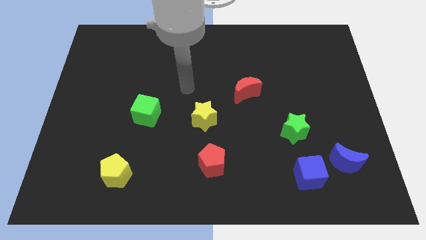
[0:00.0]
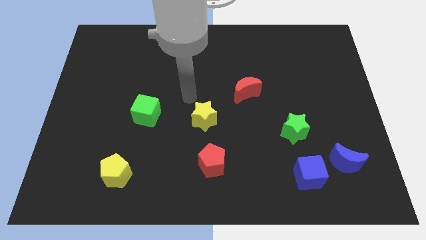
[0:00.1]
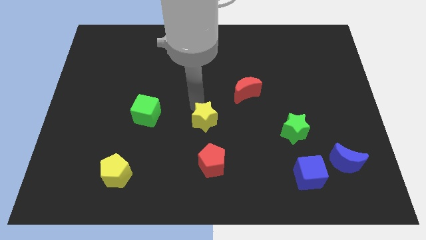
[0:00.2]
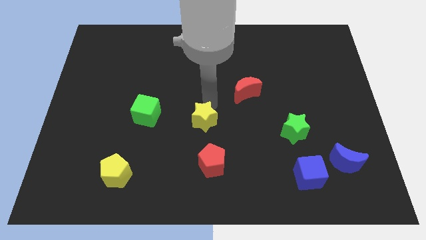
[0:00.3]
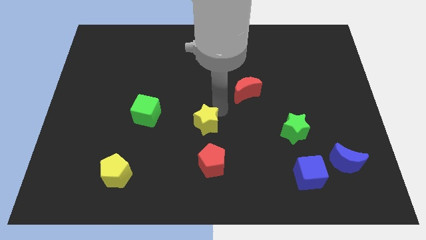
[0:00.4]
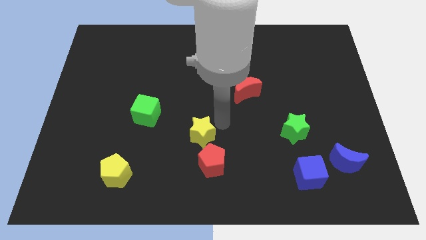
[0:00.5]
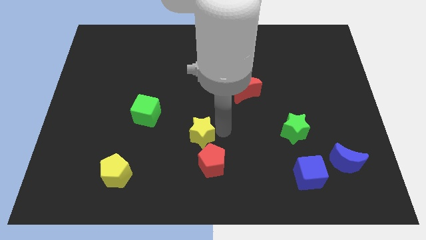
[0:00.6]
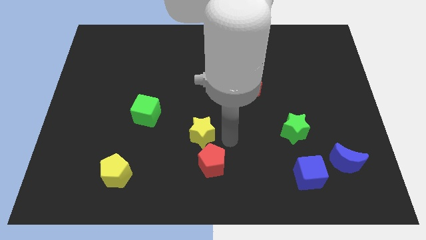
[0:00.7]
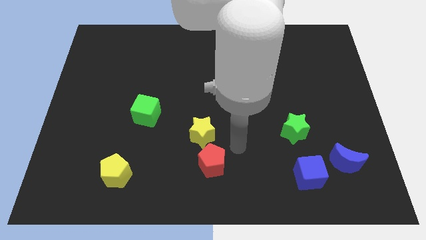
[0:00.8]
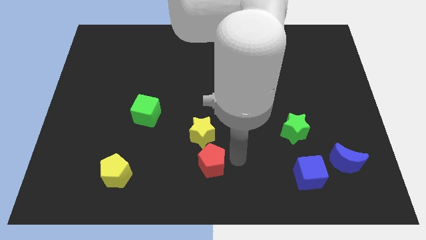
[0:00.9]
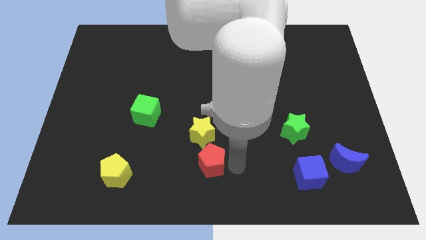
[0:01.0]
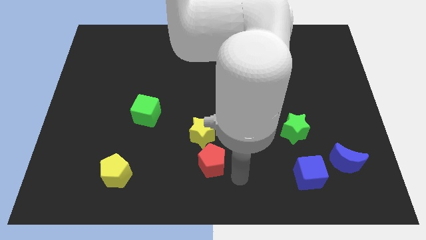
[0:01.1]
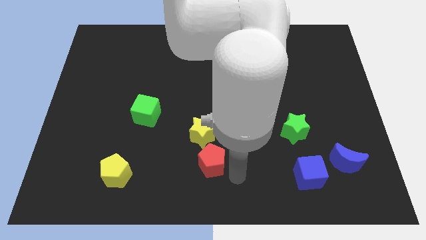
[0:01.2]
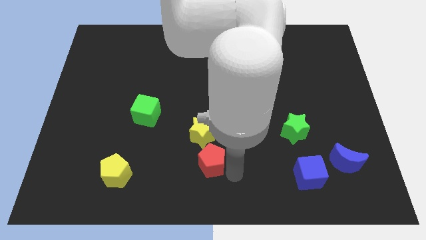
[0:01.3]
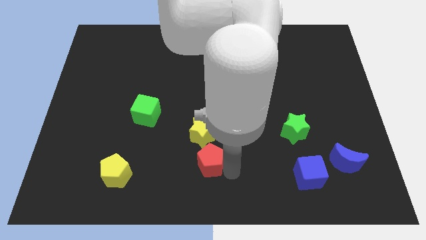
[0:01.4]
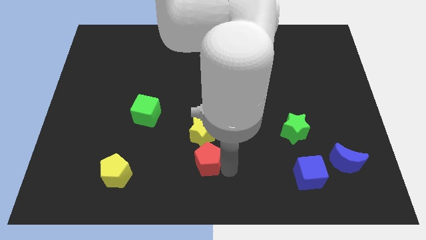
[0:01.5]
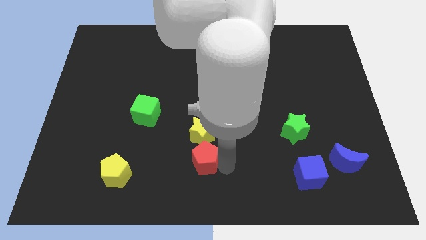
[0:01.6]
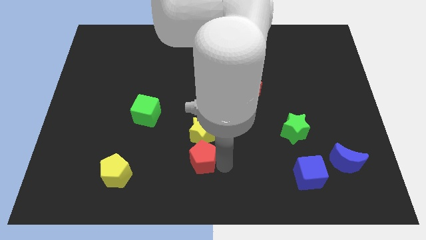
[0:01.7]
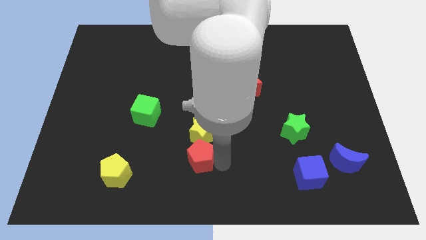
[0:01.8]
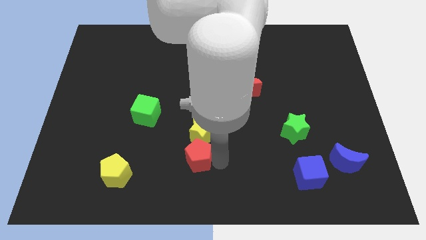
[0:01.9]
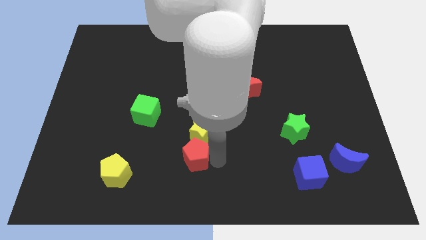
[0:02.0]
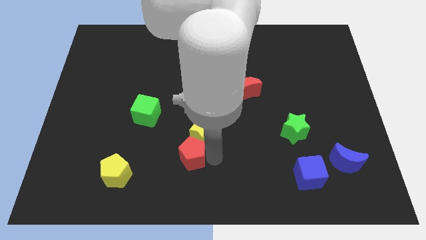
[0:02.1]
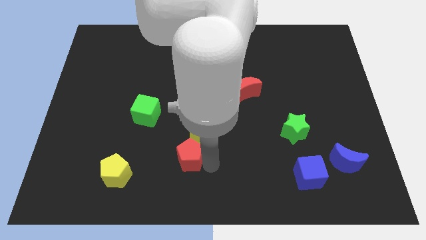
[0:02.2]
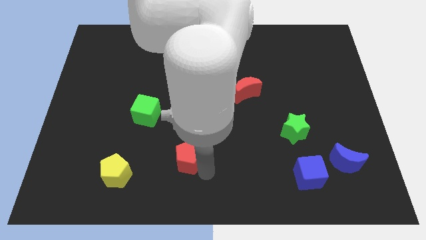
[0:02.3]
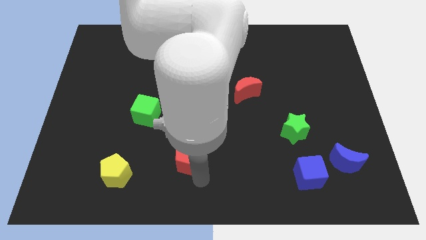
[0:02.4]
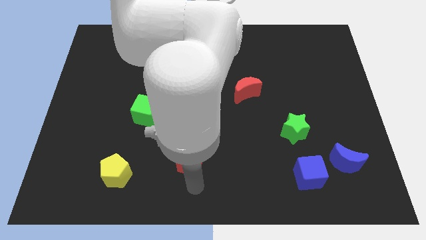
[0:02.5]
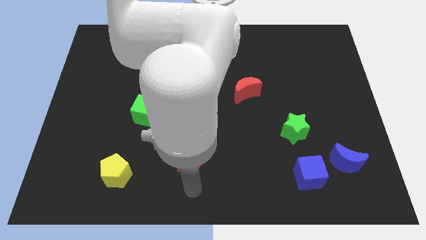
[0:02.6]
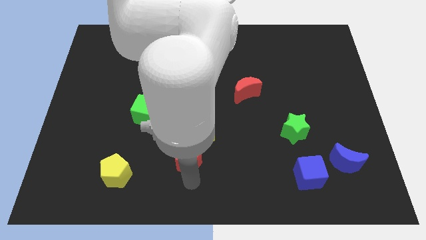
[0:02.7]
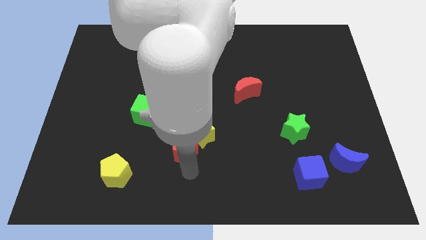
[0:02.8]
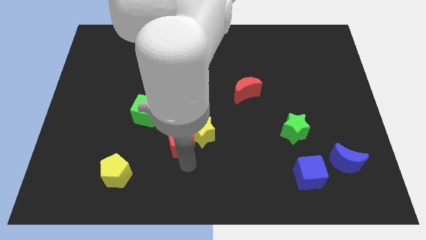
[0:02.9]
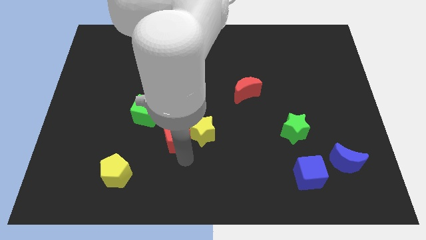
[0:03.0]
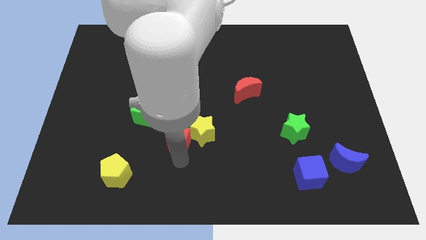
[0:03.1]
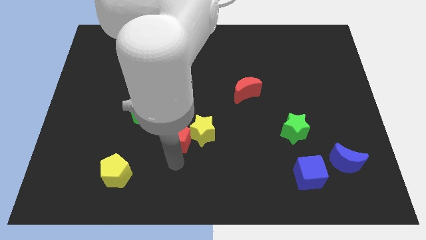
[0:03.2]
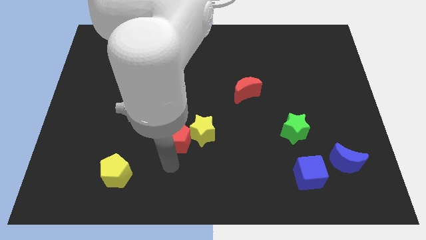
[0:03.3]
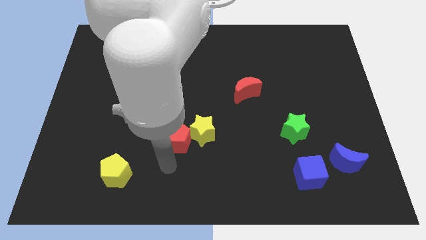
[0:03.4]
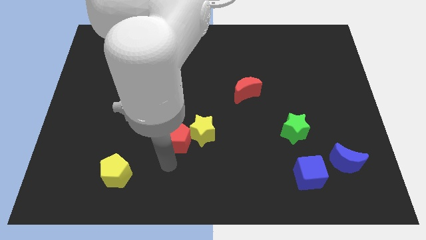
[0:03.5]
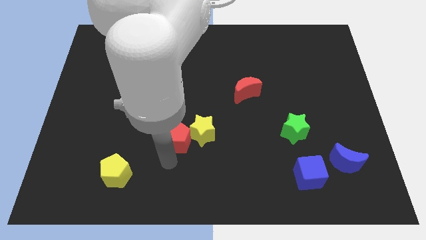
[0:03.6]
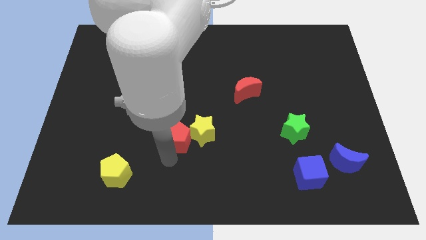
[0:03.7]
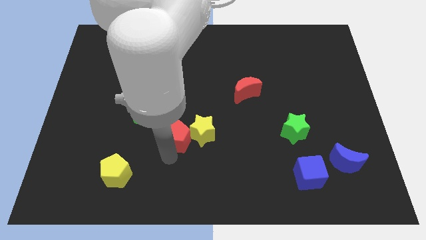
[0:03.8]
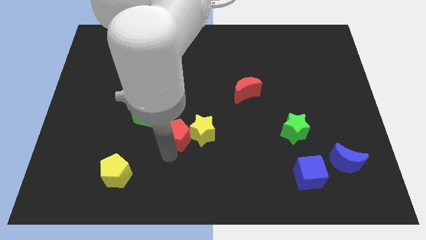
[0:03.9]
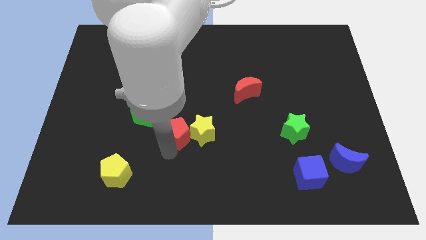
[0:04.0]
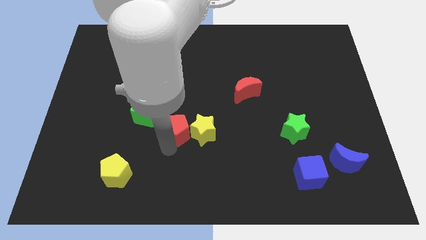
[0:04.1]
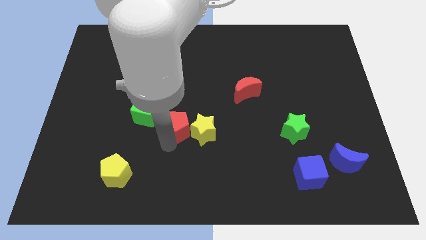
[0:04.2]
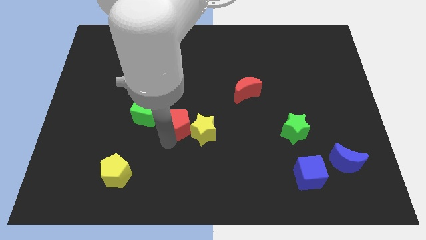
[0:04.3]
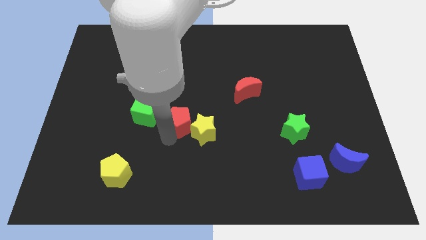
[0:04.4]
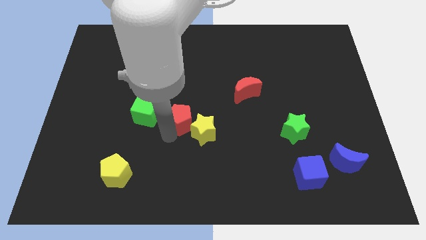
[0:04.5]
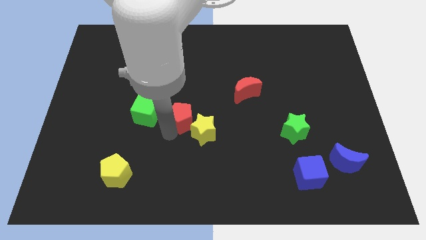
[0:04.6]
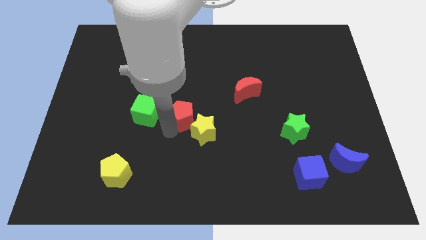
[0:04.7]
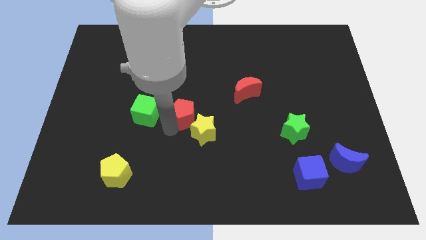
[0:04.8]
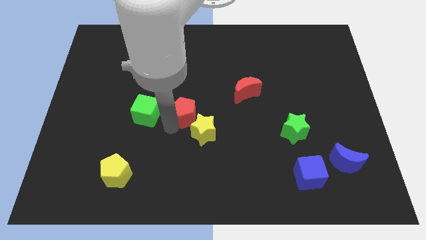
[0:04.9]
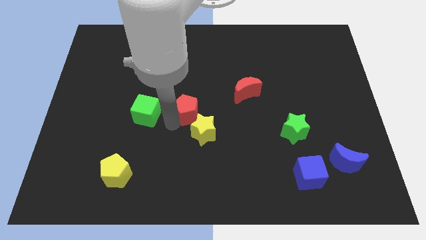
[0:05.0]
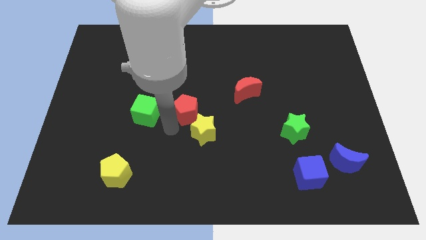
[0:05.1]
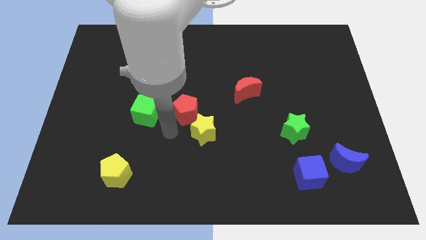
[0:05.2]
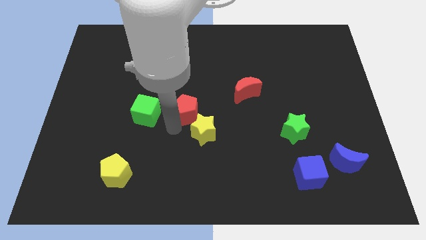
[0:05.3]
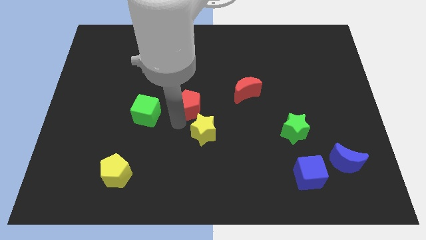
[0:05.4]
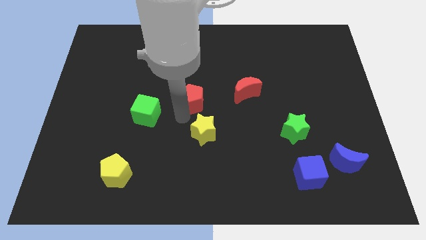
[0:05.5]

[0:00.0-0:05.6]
move the red pentagon to the left side of the red moon

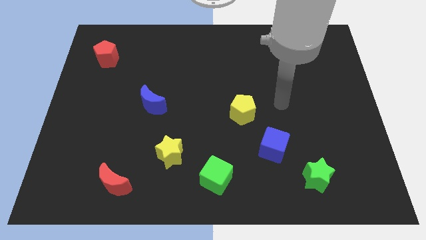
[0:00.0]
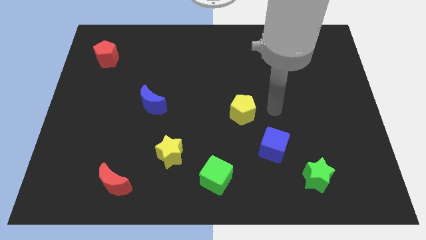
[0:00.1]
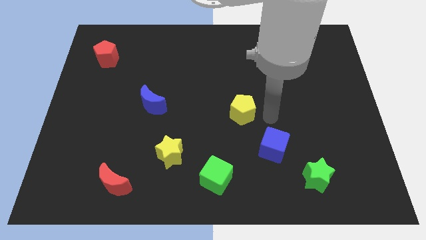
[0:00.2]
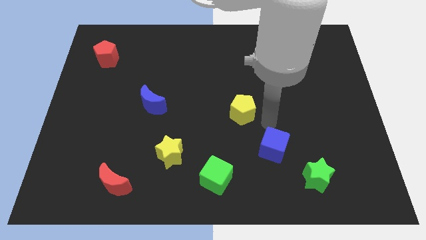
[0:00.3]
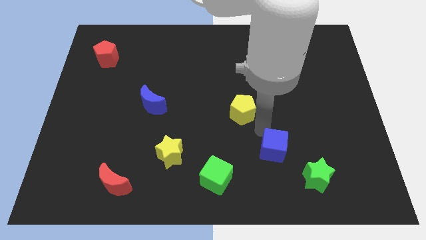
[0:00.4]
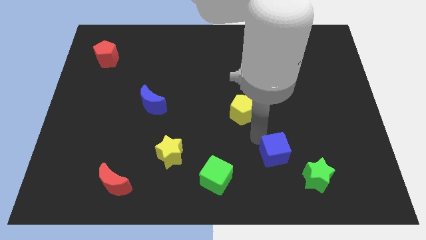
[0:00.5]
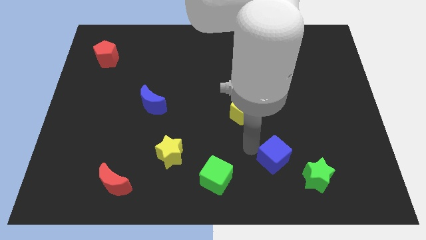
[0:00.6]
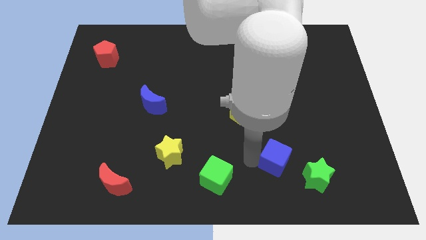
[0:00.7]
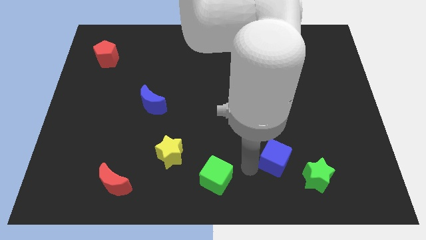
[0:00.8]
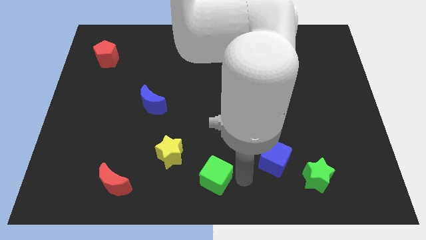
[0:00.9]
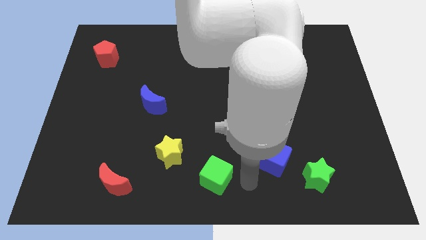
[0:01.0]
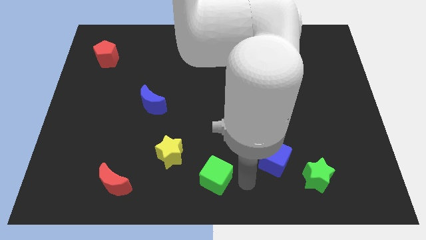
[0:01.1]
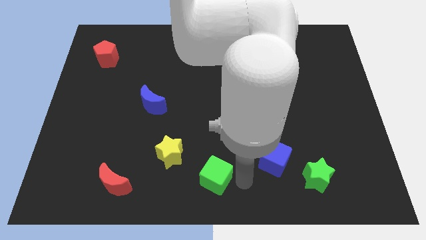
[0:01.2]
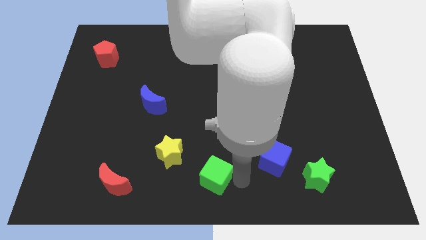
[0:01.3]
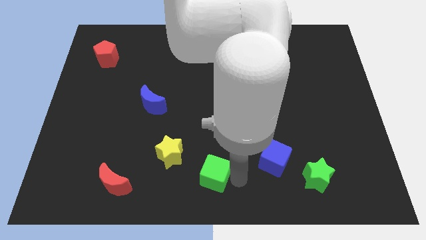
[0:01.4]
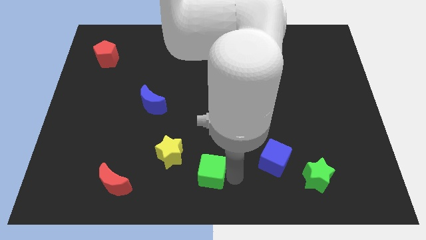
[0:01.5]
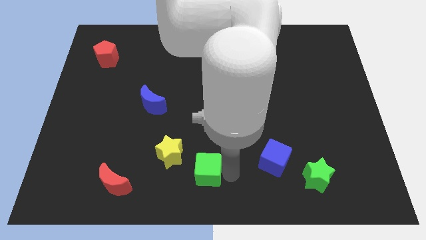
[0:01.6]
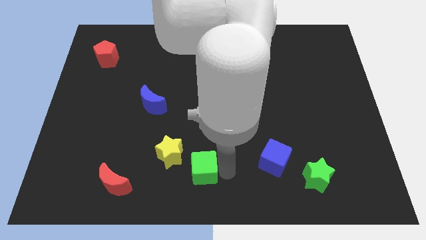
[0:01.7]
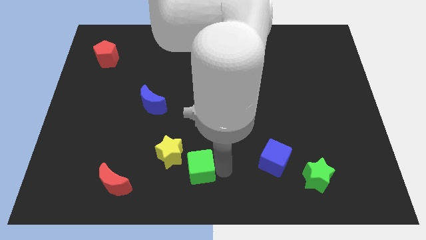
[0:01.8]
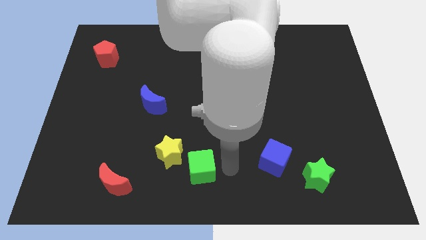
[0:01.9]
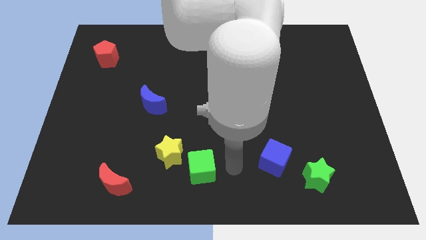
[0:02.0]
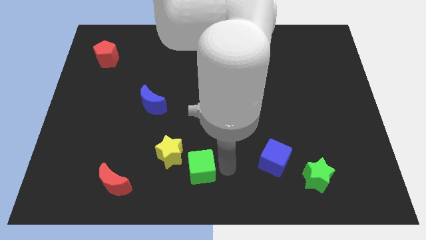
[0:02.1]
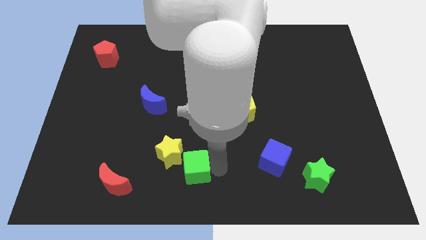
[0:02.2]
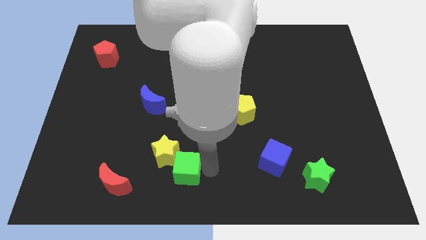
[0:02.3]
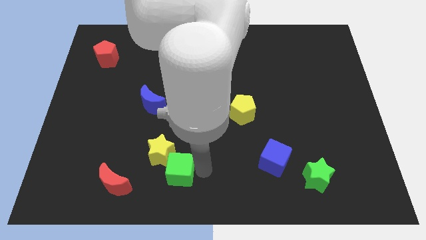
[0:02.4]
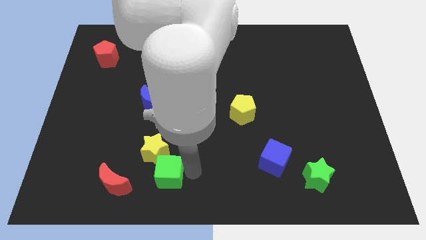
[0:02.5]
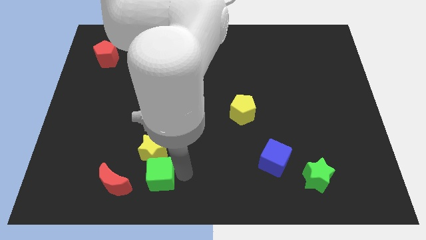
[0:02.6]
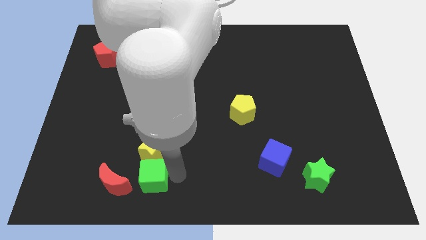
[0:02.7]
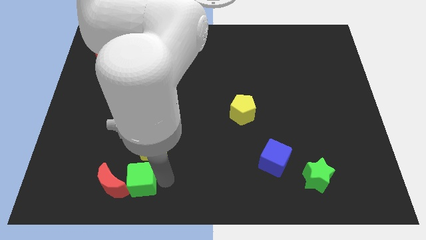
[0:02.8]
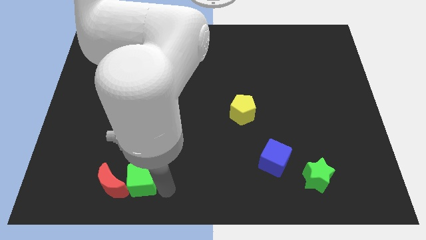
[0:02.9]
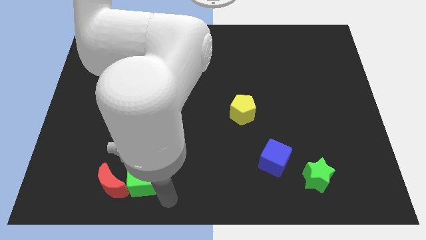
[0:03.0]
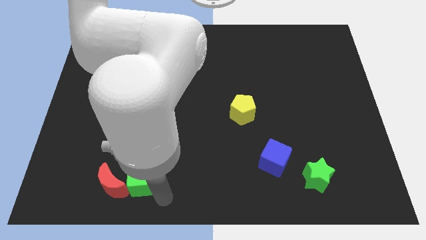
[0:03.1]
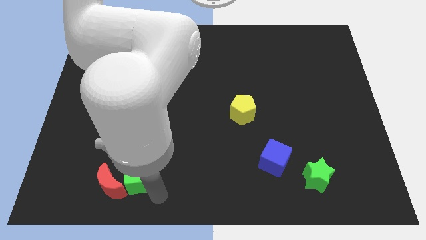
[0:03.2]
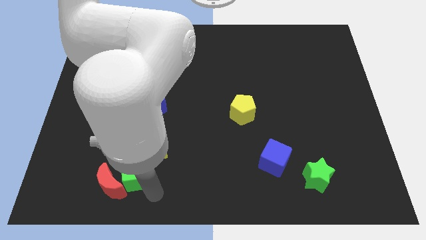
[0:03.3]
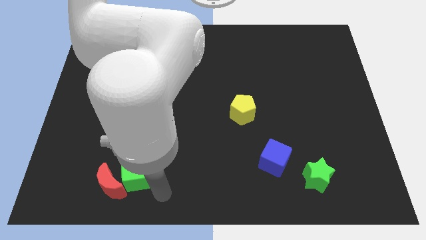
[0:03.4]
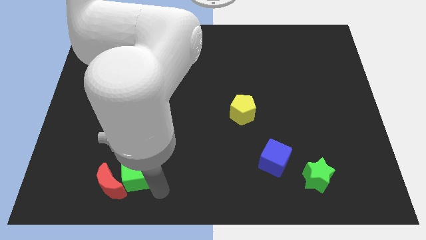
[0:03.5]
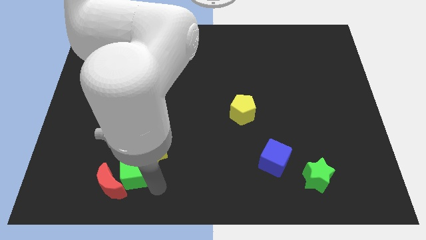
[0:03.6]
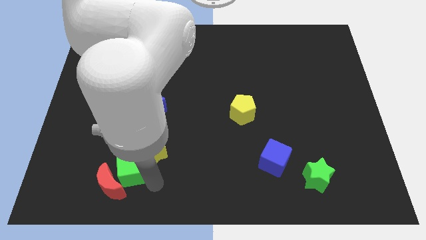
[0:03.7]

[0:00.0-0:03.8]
push the green cube to the left side of the yellow star
